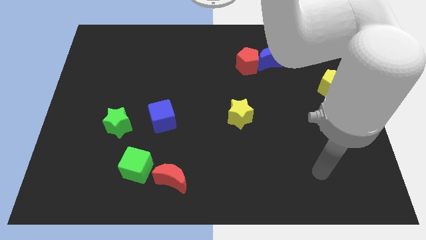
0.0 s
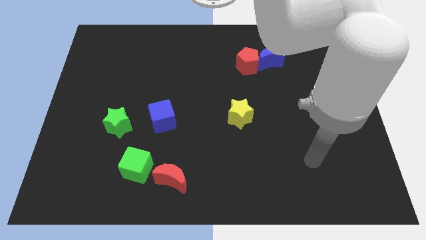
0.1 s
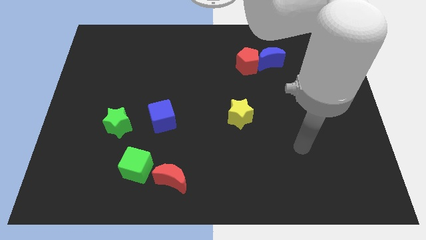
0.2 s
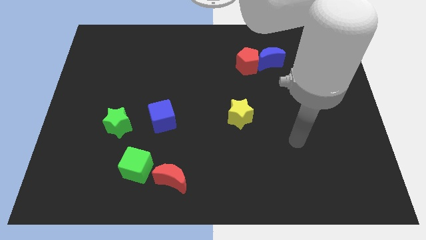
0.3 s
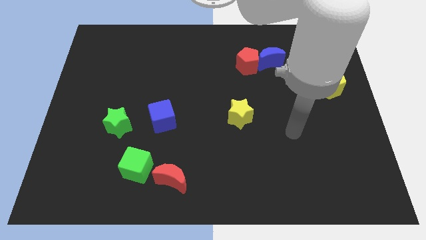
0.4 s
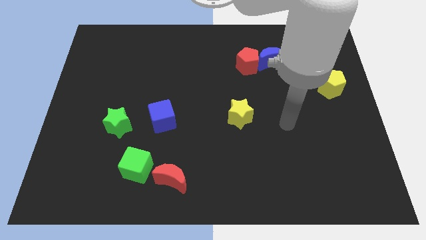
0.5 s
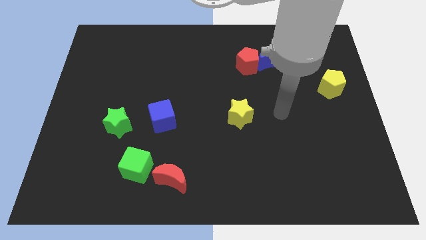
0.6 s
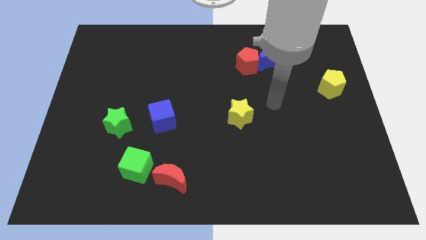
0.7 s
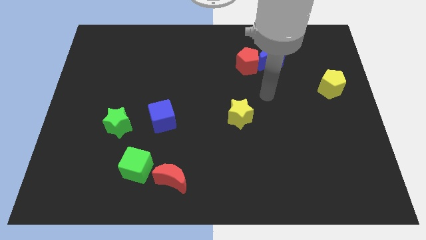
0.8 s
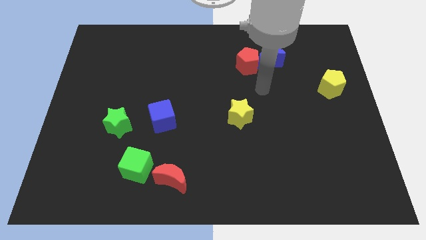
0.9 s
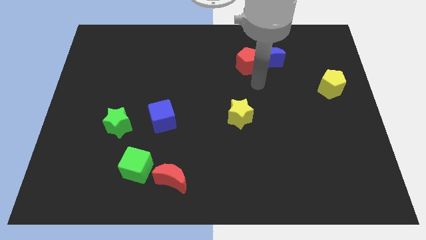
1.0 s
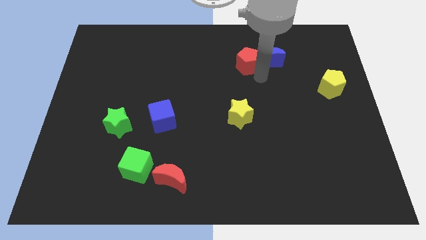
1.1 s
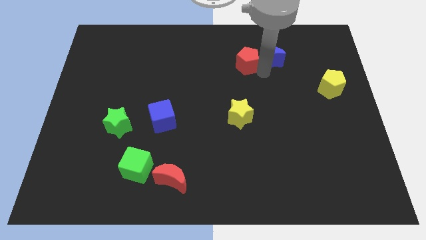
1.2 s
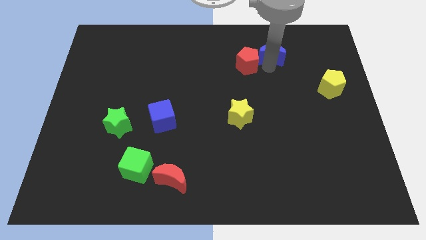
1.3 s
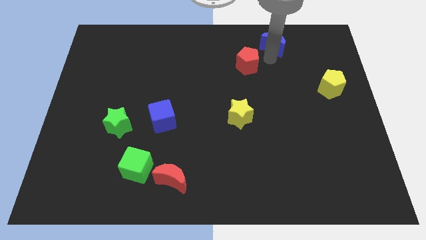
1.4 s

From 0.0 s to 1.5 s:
separate the red pentagon from the blue moon

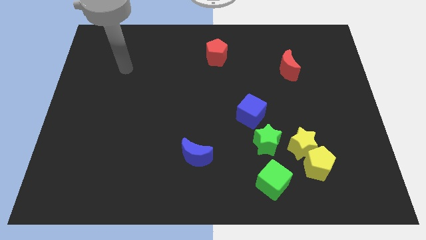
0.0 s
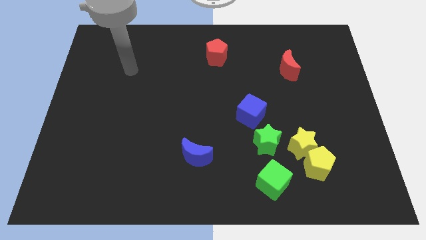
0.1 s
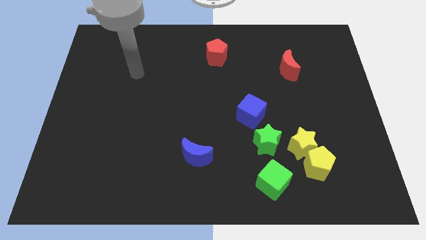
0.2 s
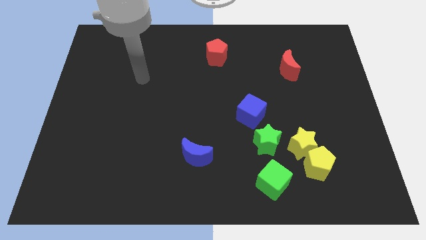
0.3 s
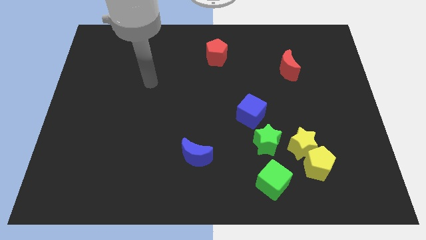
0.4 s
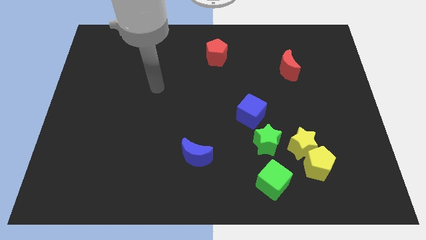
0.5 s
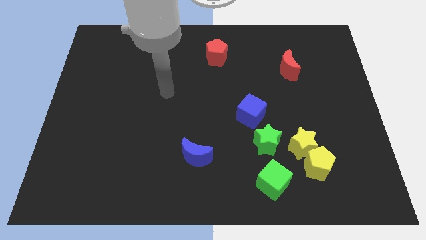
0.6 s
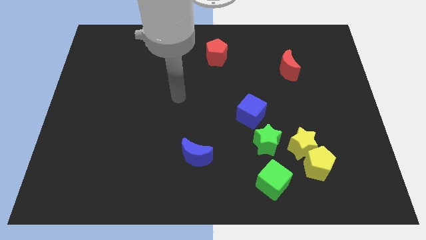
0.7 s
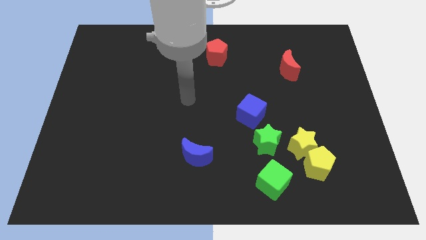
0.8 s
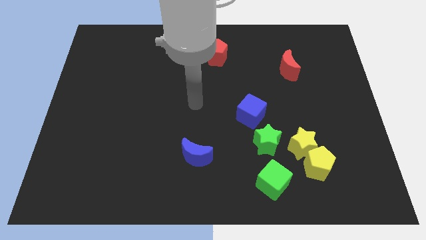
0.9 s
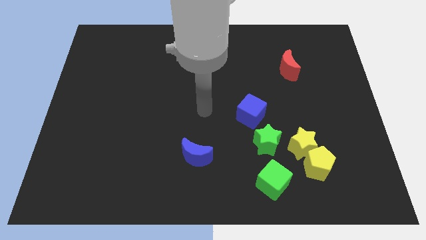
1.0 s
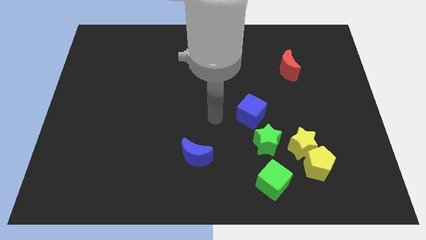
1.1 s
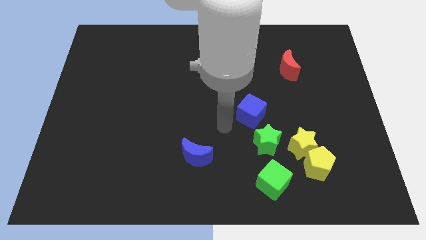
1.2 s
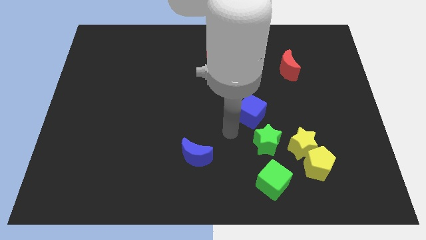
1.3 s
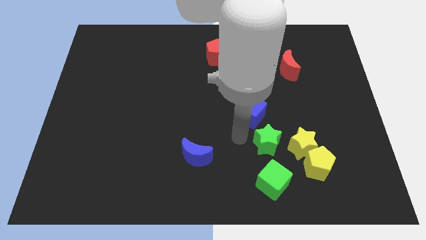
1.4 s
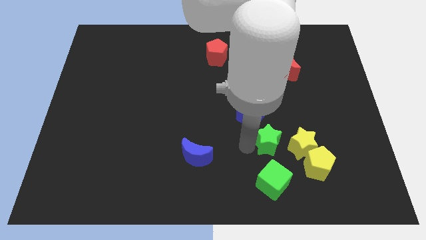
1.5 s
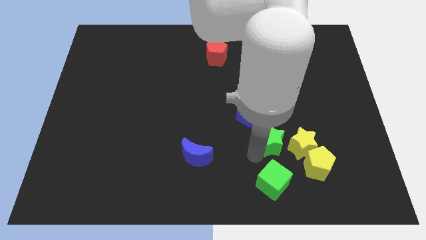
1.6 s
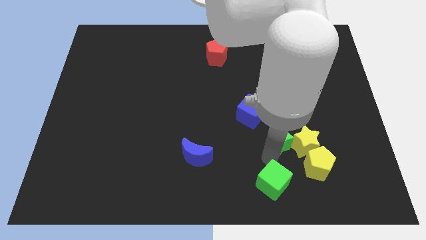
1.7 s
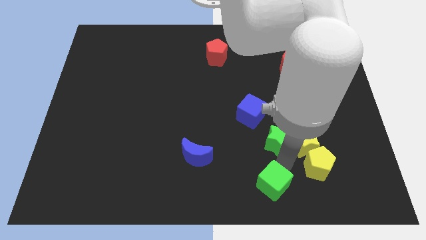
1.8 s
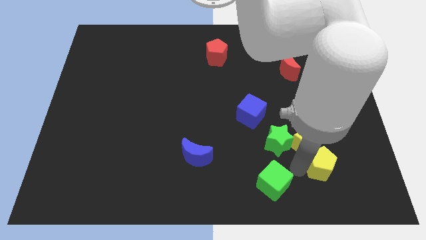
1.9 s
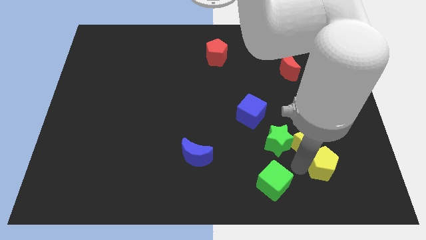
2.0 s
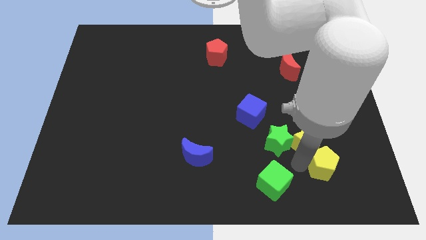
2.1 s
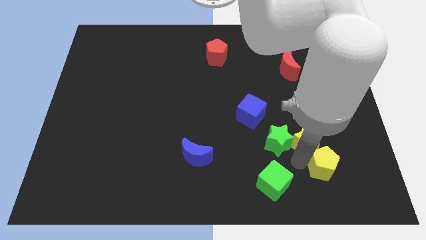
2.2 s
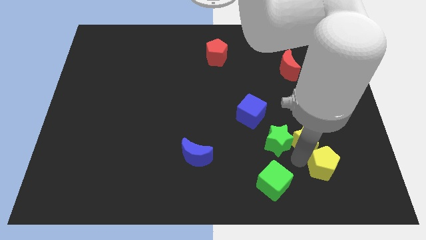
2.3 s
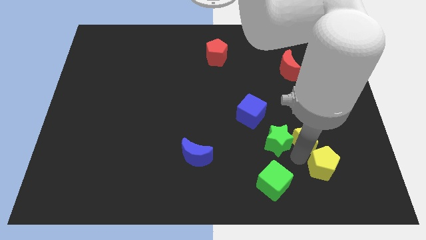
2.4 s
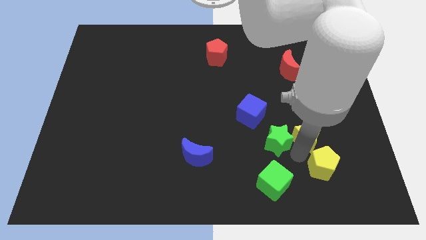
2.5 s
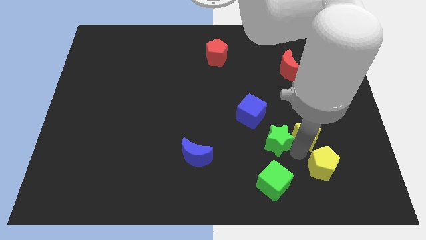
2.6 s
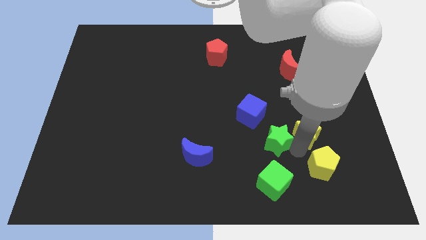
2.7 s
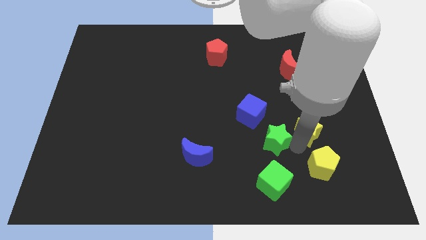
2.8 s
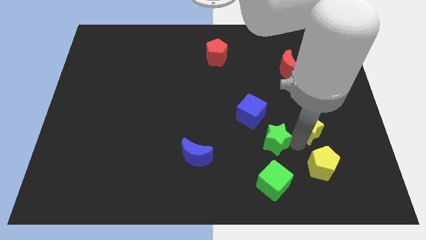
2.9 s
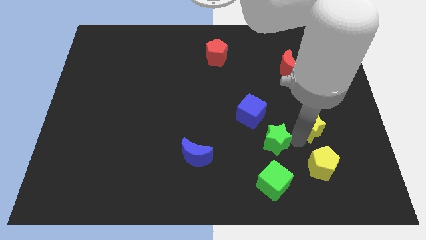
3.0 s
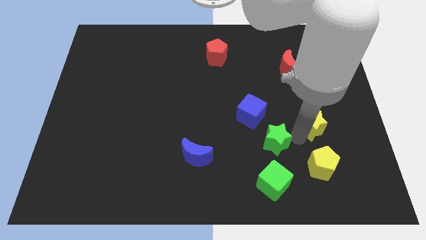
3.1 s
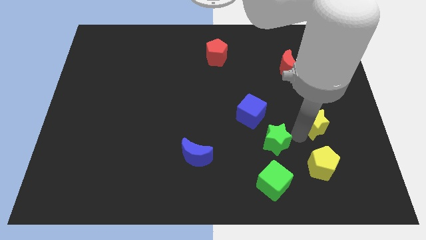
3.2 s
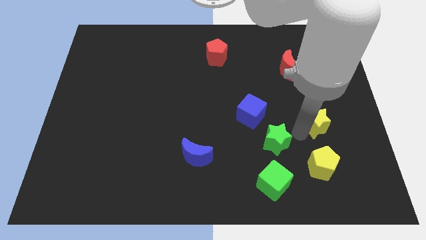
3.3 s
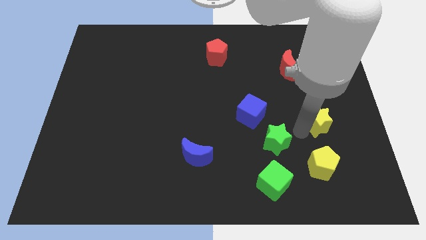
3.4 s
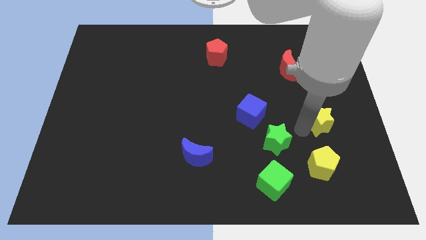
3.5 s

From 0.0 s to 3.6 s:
separate the yellow star from the yellow pentagon and green star

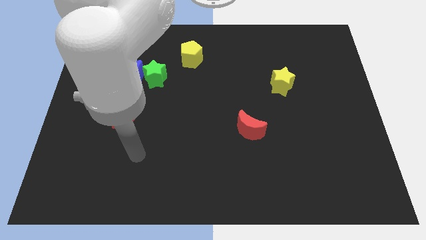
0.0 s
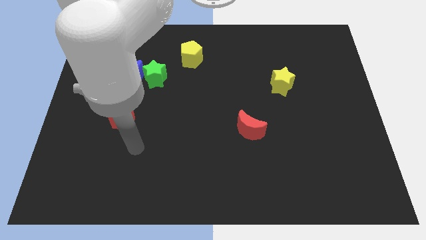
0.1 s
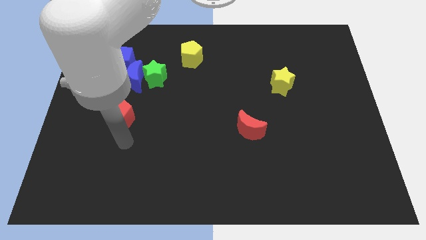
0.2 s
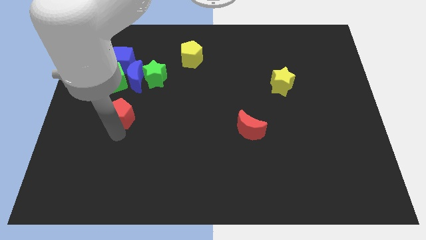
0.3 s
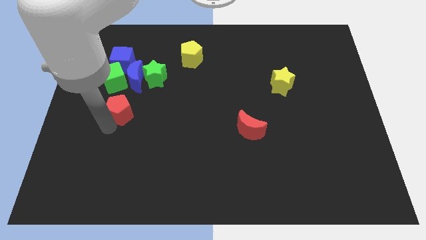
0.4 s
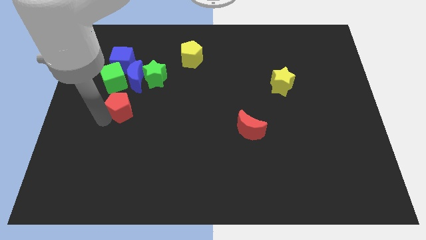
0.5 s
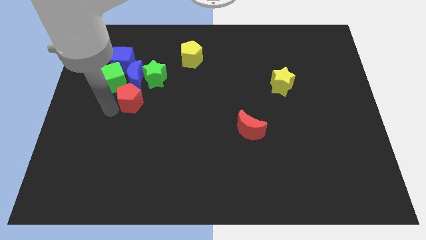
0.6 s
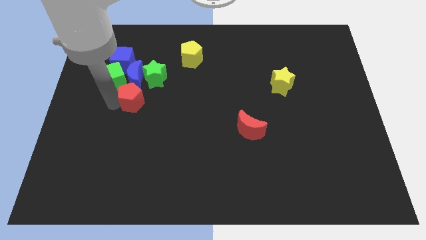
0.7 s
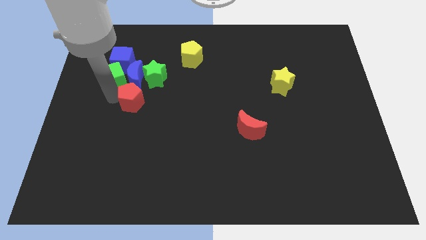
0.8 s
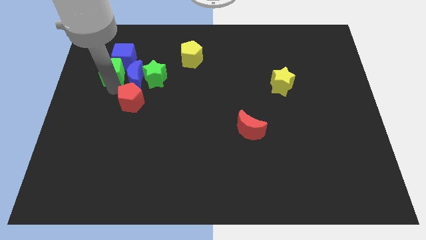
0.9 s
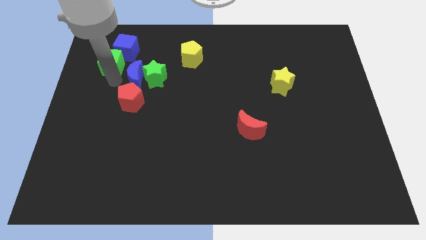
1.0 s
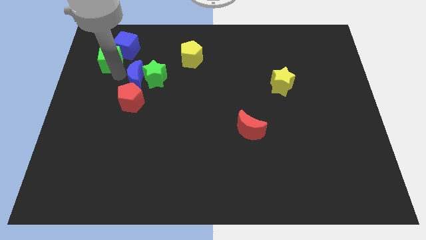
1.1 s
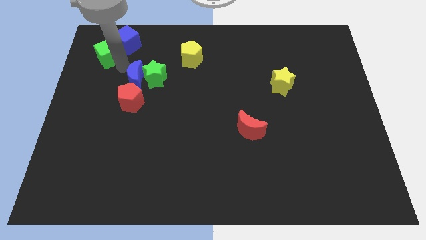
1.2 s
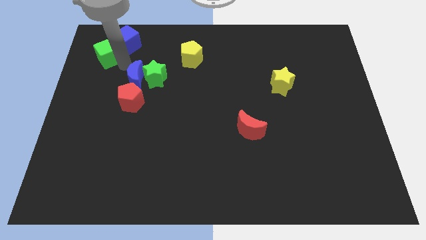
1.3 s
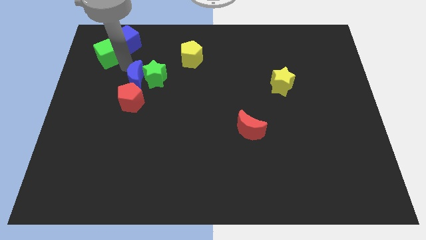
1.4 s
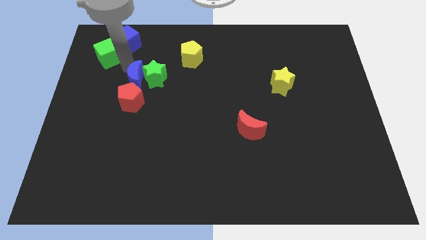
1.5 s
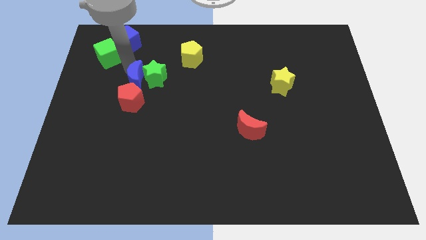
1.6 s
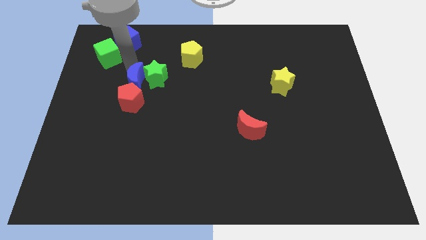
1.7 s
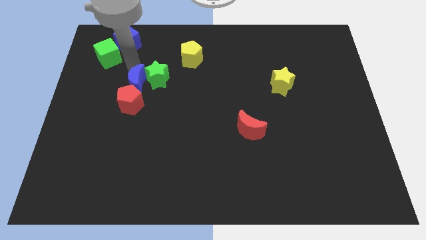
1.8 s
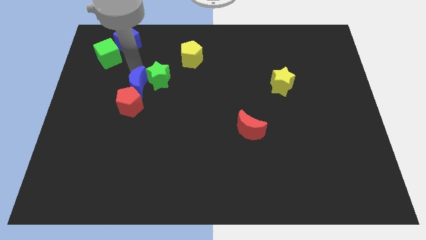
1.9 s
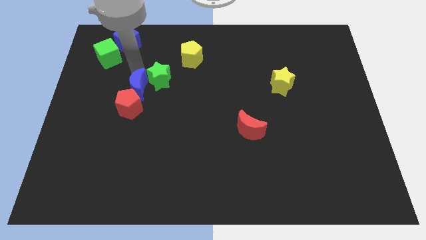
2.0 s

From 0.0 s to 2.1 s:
move the blue moon away from the group of blocks

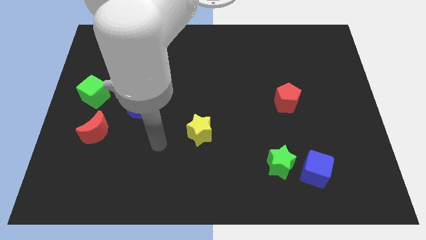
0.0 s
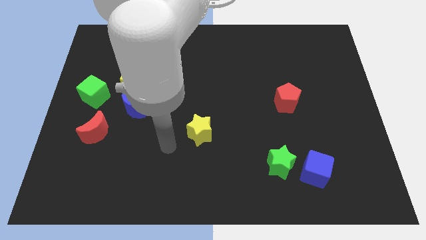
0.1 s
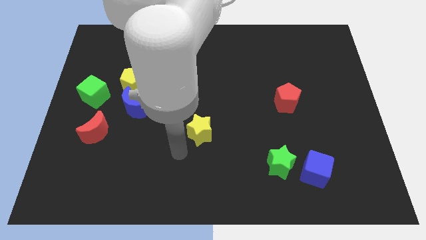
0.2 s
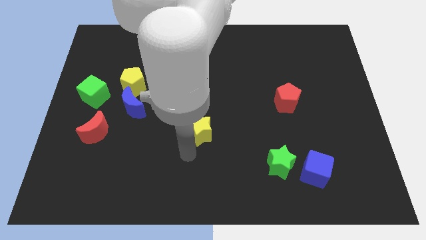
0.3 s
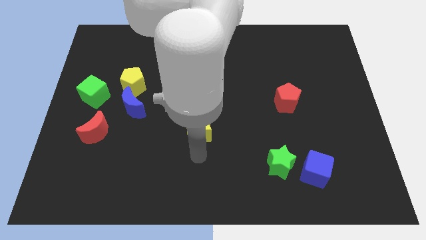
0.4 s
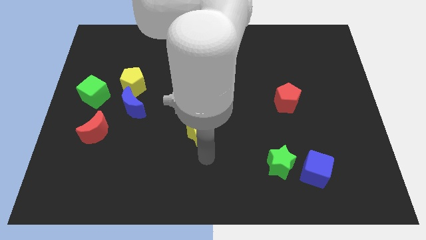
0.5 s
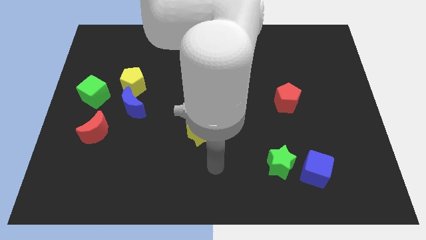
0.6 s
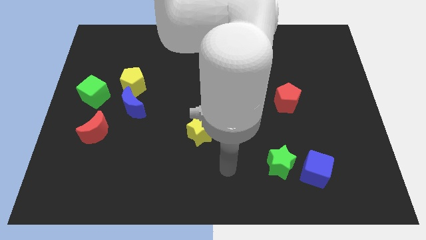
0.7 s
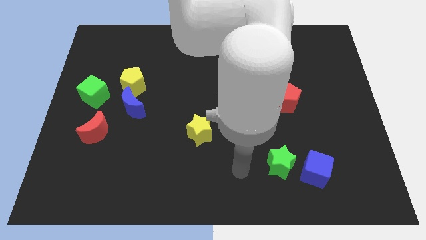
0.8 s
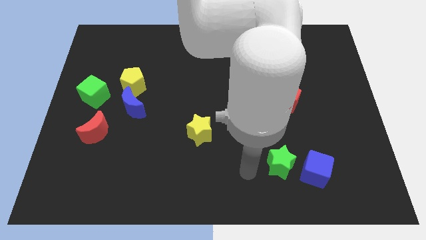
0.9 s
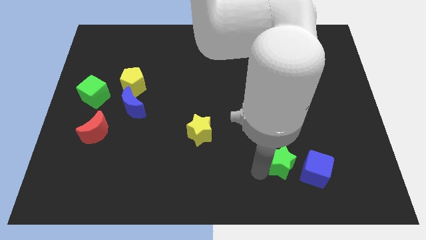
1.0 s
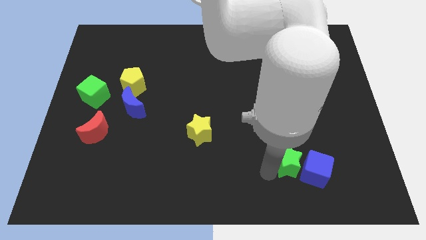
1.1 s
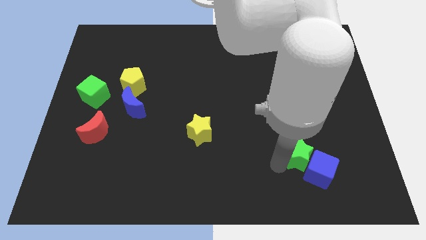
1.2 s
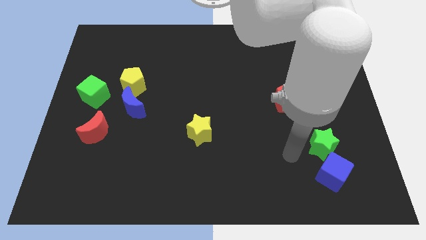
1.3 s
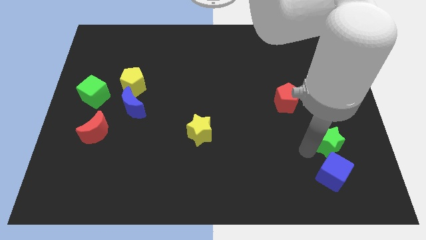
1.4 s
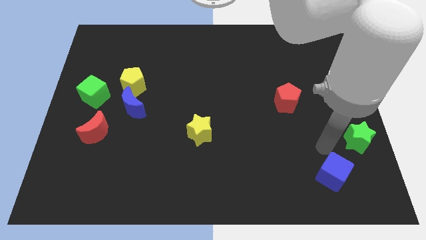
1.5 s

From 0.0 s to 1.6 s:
separate the blue cube from the green star

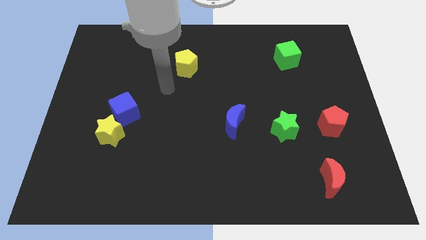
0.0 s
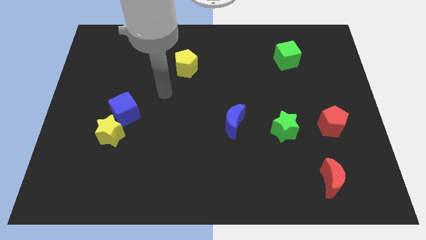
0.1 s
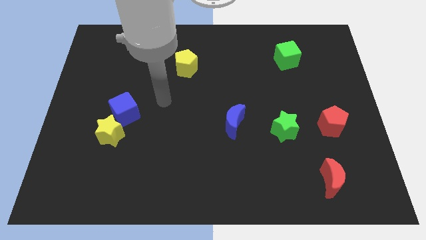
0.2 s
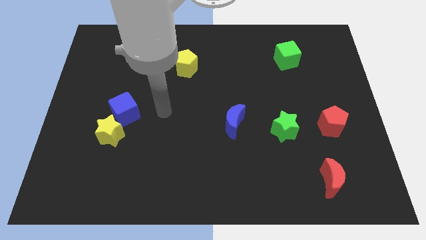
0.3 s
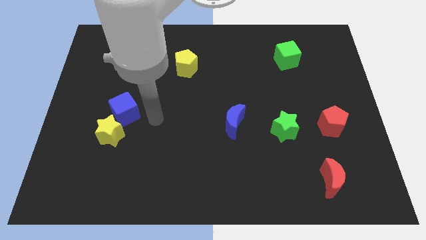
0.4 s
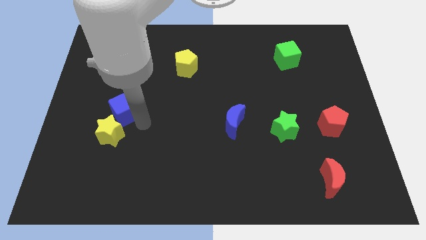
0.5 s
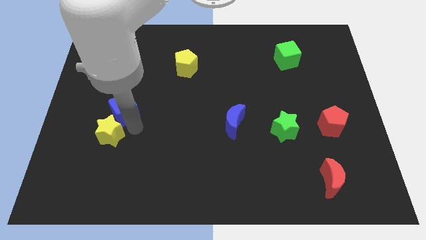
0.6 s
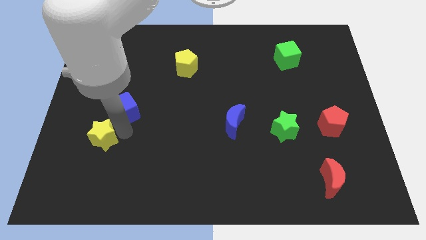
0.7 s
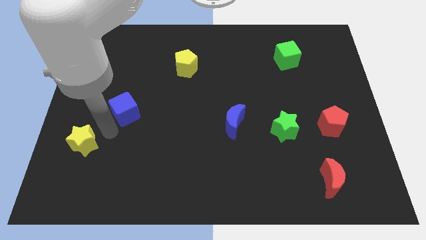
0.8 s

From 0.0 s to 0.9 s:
move the blue cube away from the yellow star
